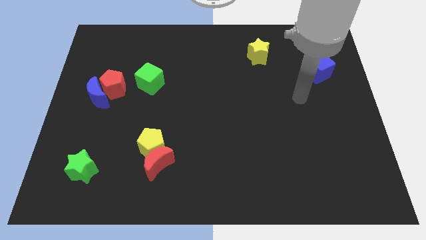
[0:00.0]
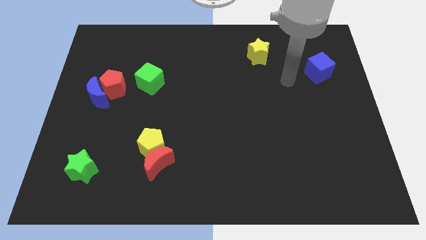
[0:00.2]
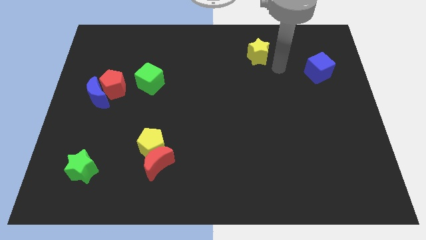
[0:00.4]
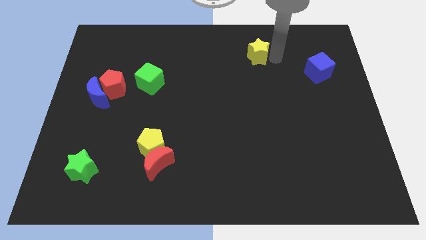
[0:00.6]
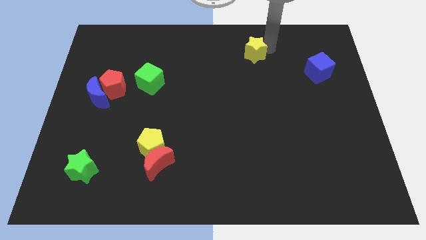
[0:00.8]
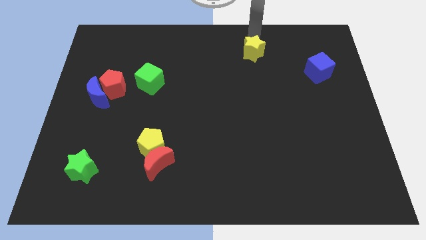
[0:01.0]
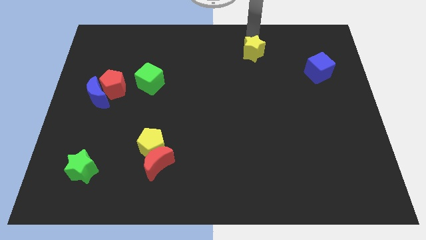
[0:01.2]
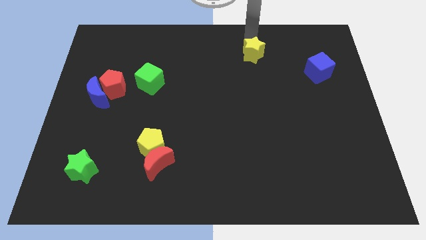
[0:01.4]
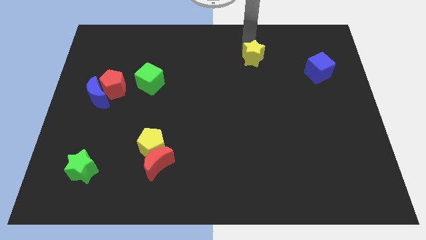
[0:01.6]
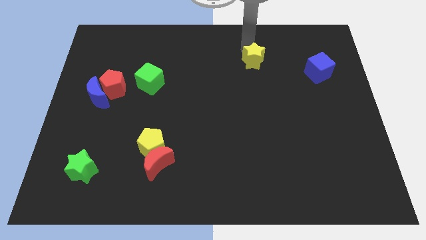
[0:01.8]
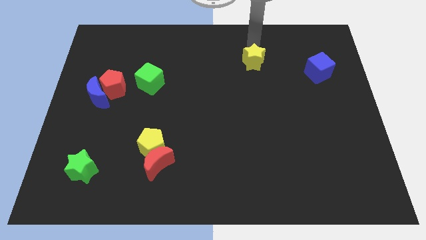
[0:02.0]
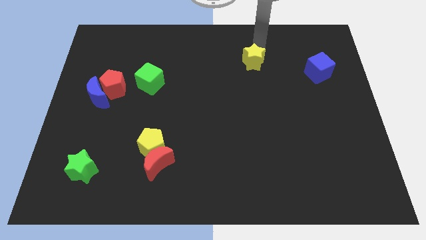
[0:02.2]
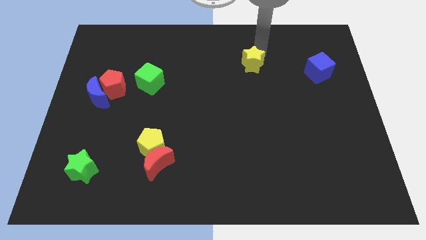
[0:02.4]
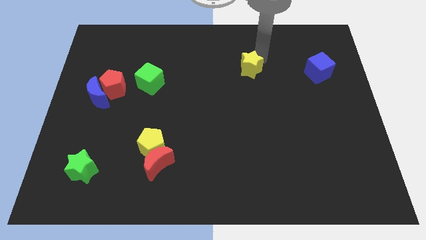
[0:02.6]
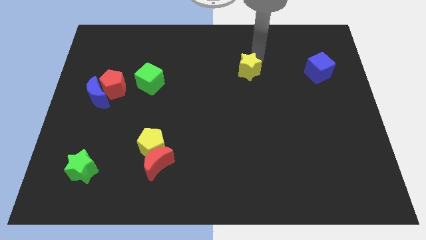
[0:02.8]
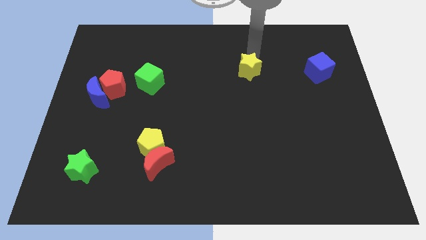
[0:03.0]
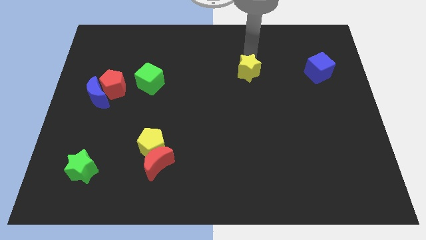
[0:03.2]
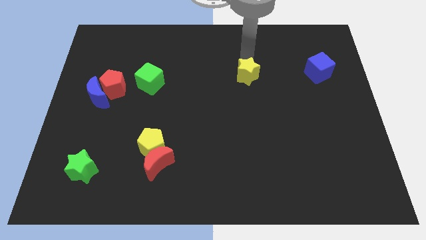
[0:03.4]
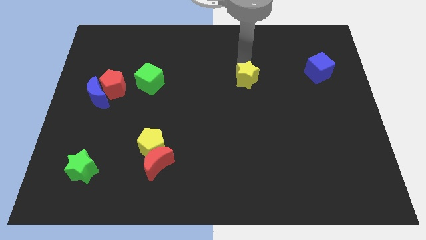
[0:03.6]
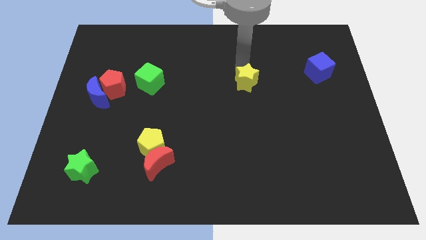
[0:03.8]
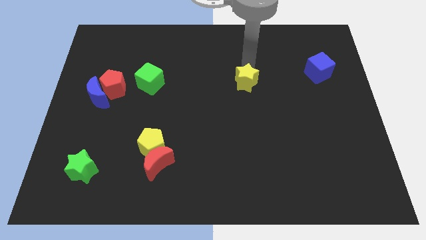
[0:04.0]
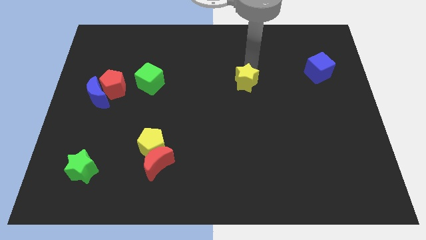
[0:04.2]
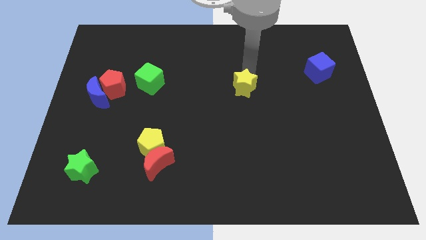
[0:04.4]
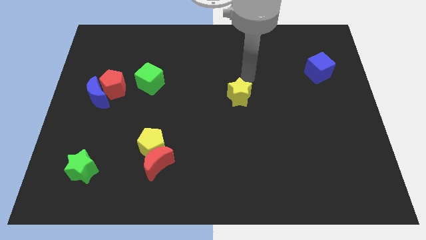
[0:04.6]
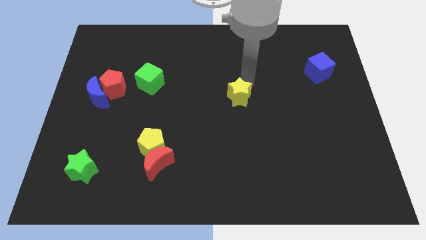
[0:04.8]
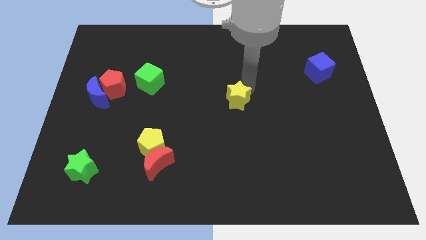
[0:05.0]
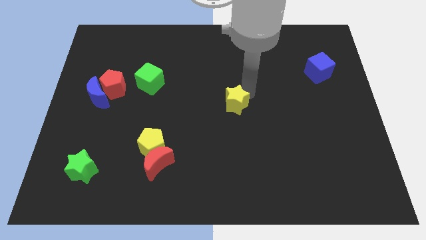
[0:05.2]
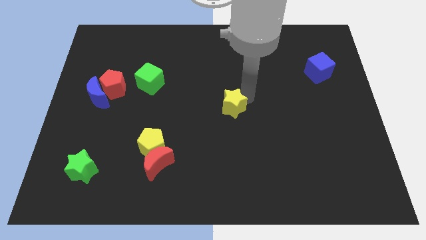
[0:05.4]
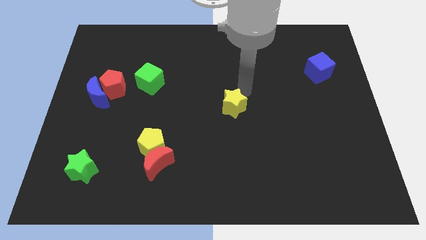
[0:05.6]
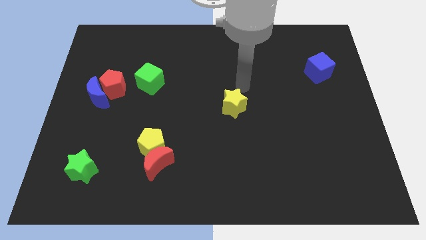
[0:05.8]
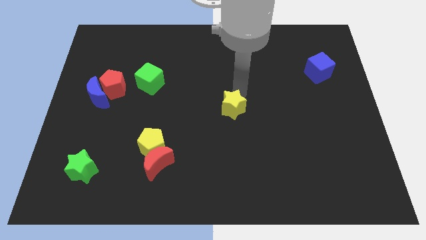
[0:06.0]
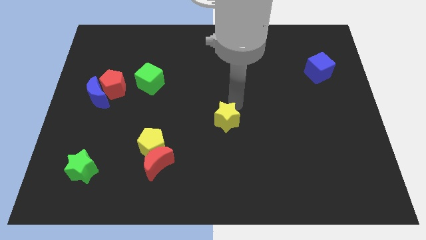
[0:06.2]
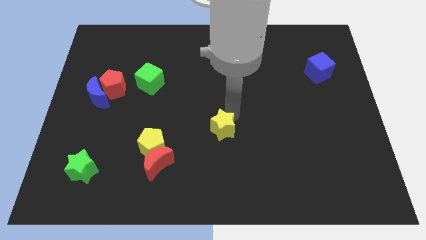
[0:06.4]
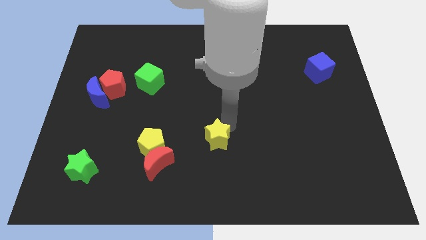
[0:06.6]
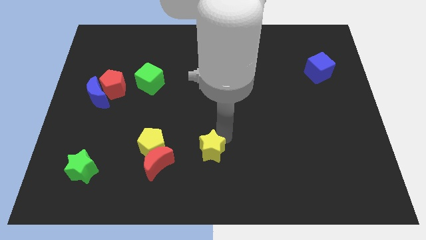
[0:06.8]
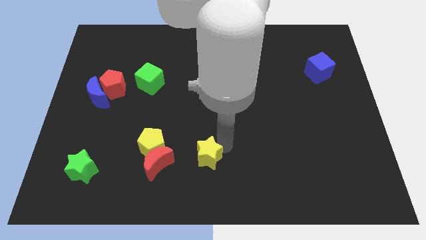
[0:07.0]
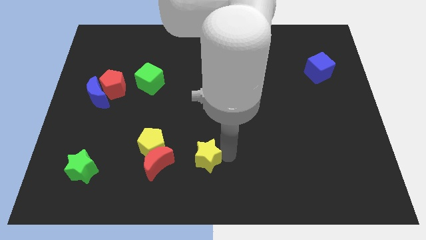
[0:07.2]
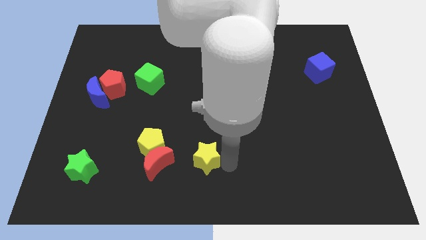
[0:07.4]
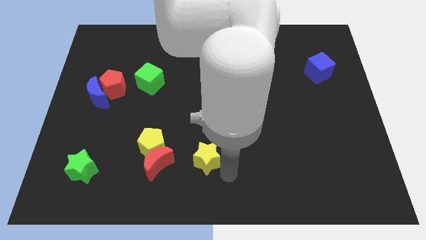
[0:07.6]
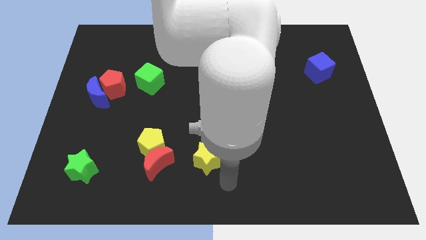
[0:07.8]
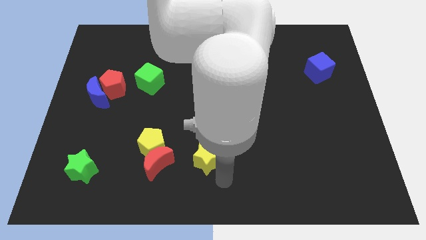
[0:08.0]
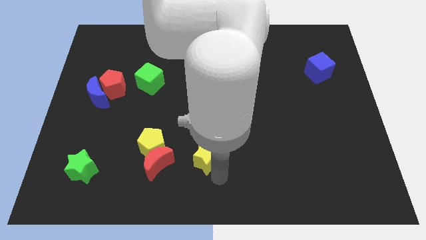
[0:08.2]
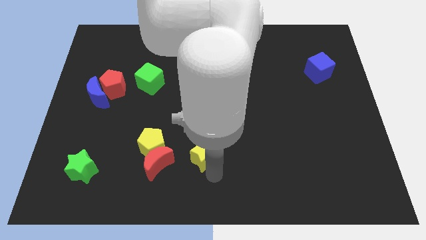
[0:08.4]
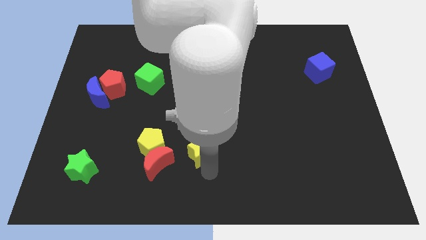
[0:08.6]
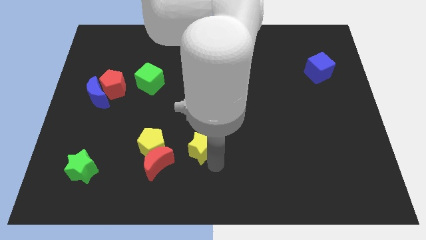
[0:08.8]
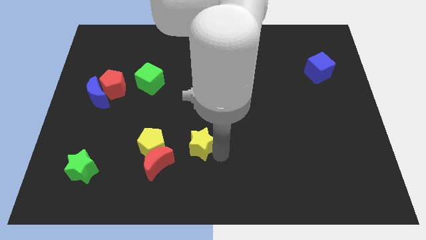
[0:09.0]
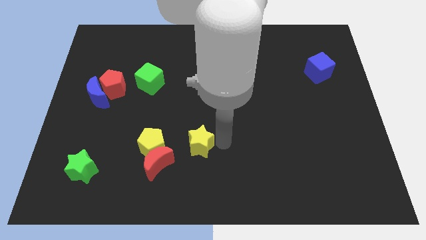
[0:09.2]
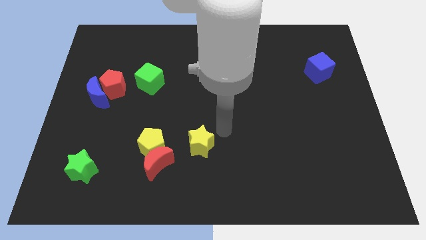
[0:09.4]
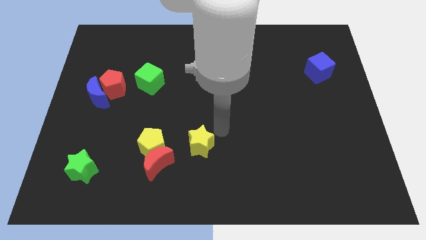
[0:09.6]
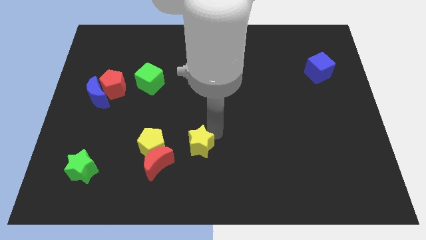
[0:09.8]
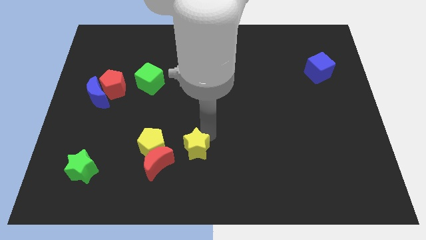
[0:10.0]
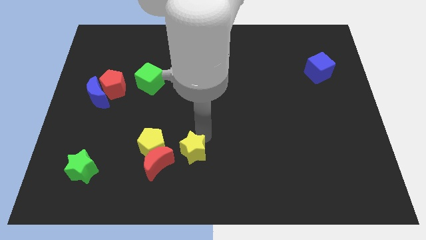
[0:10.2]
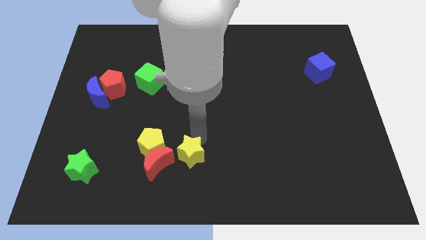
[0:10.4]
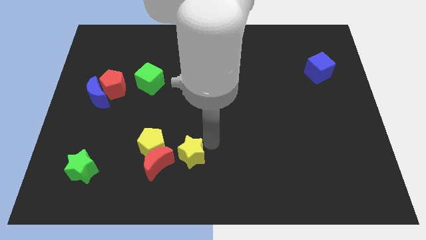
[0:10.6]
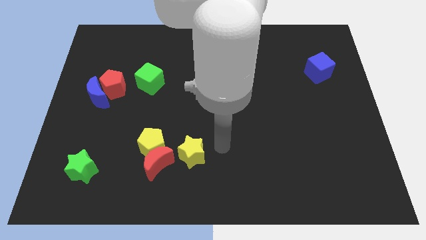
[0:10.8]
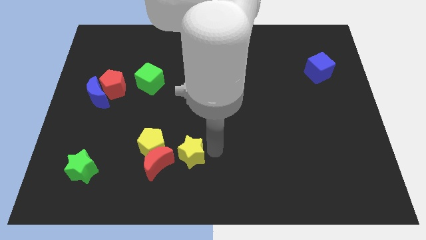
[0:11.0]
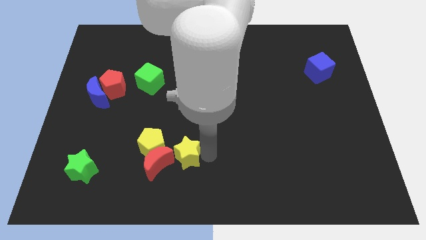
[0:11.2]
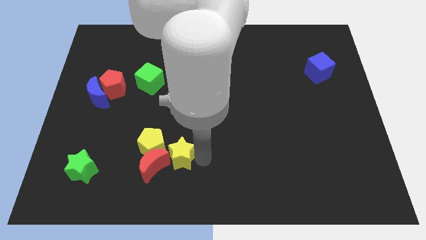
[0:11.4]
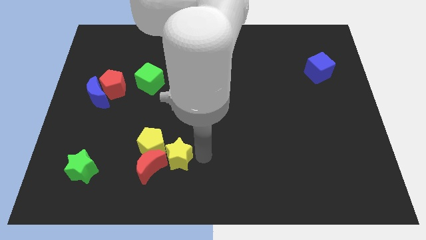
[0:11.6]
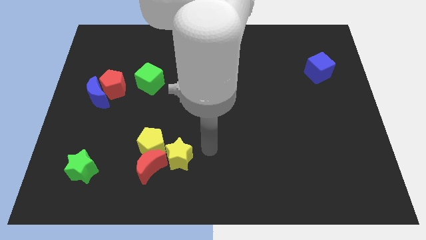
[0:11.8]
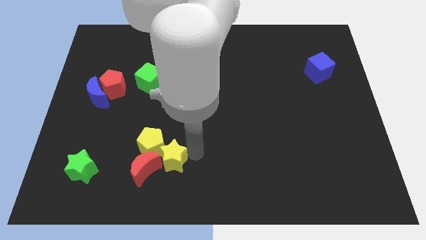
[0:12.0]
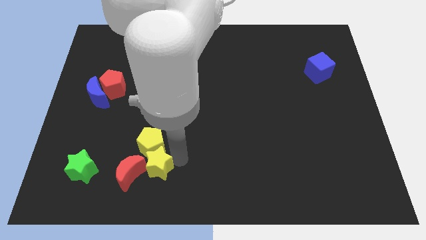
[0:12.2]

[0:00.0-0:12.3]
push the yellow star next to the red moon

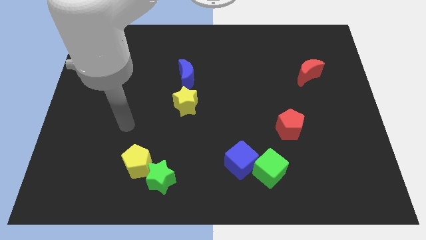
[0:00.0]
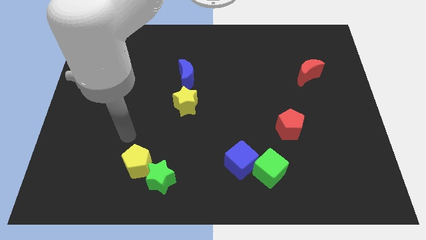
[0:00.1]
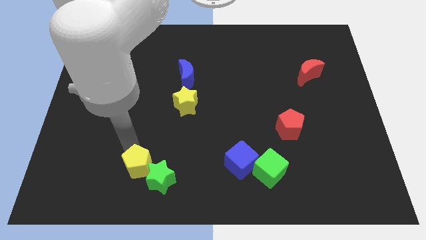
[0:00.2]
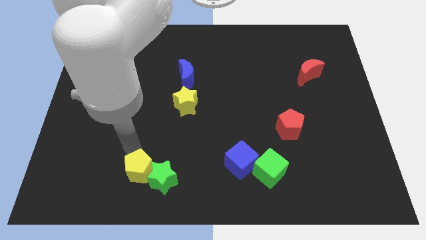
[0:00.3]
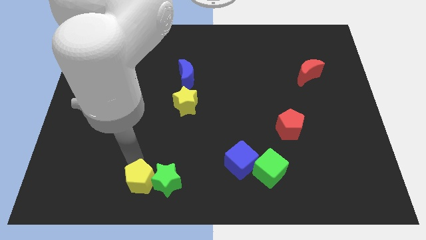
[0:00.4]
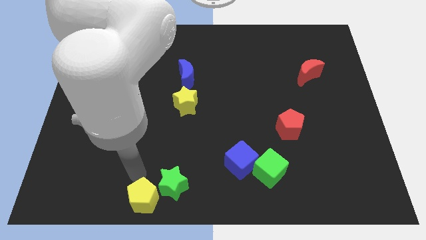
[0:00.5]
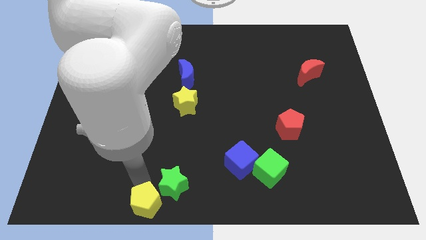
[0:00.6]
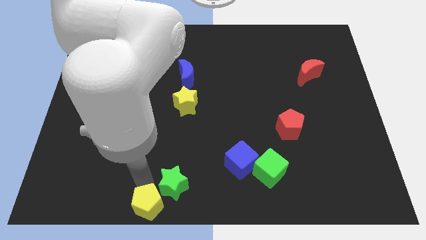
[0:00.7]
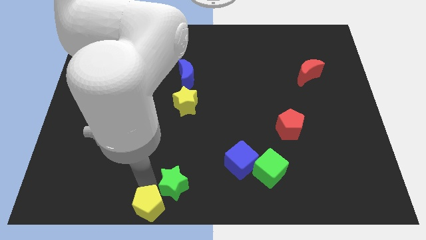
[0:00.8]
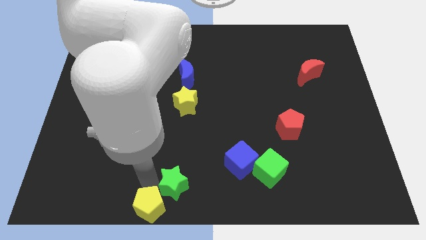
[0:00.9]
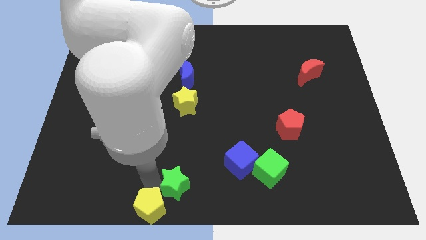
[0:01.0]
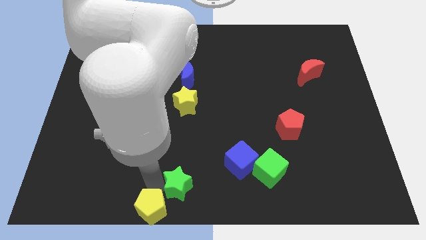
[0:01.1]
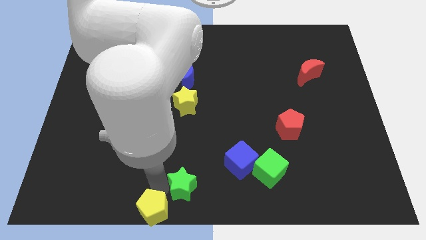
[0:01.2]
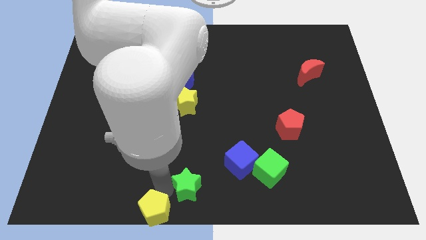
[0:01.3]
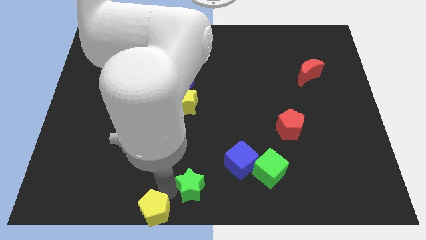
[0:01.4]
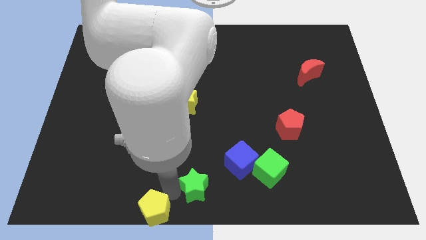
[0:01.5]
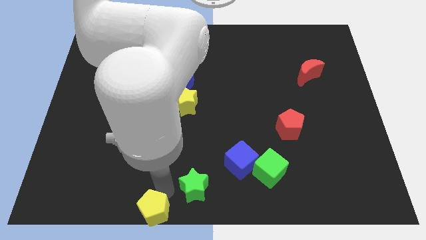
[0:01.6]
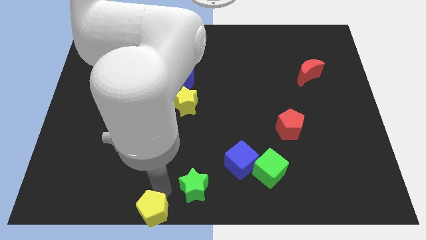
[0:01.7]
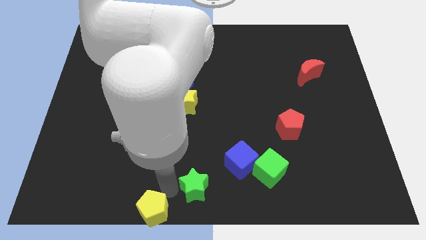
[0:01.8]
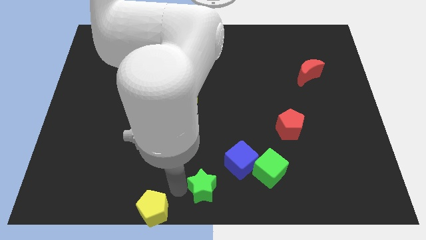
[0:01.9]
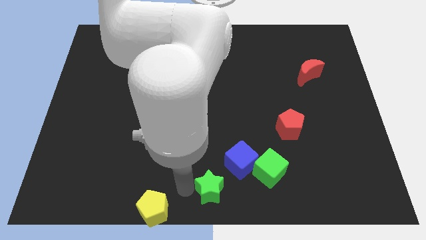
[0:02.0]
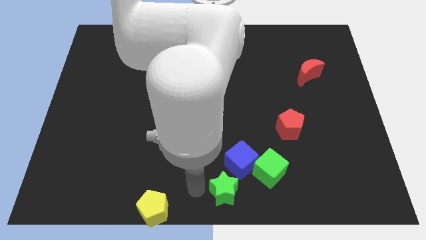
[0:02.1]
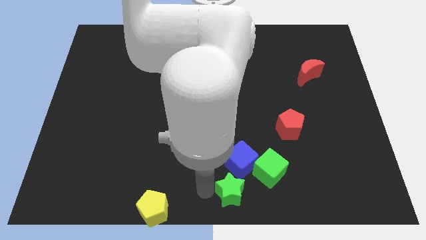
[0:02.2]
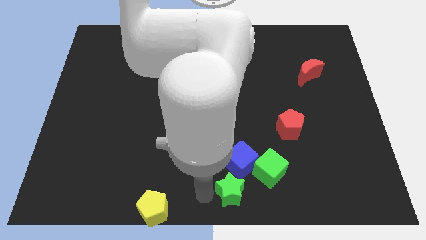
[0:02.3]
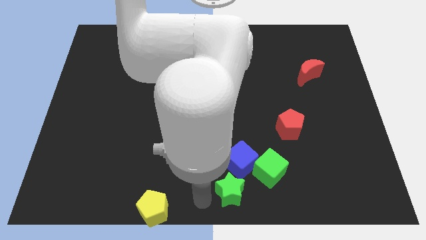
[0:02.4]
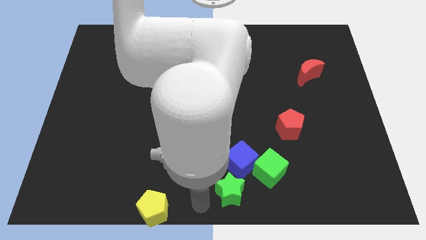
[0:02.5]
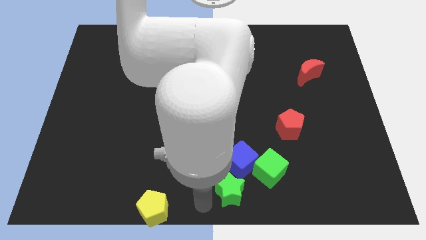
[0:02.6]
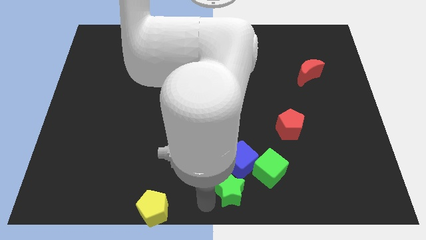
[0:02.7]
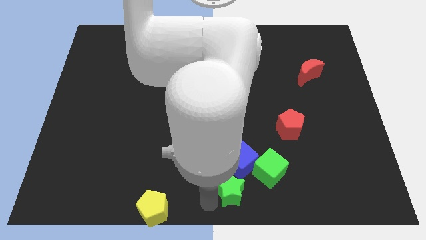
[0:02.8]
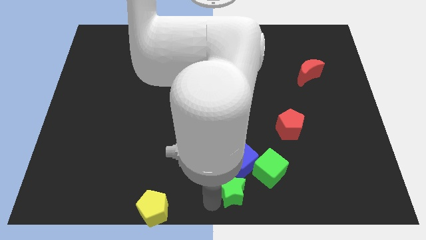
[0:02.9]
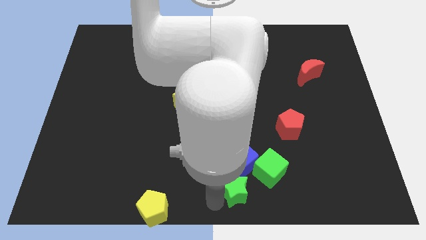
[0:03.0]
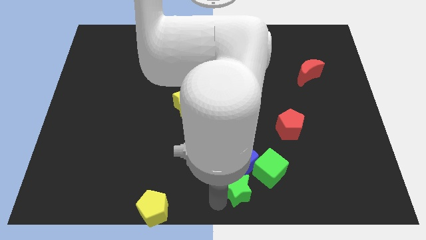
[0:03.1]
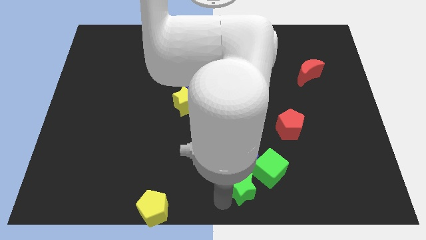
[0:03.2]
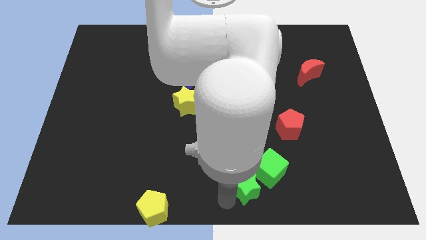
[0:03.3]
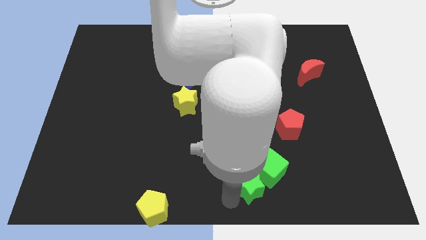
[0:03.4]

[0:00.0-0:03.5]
put the green star close to the green cube
